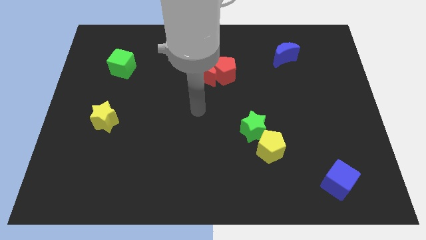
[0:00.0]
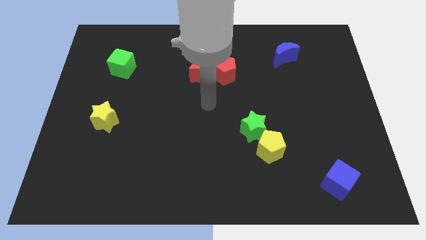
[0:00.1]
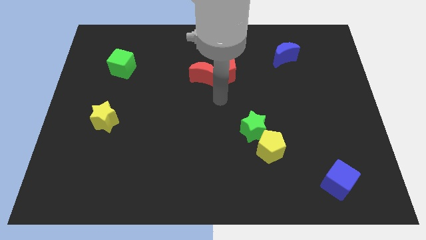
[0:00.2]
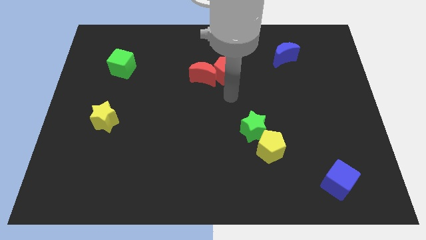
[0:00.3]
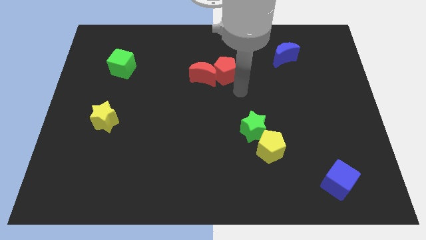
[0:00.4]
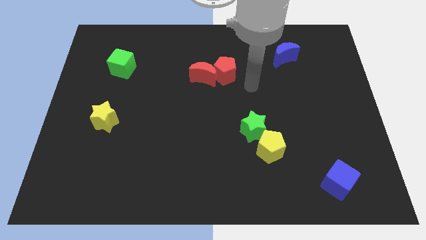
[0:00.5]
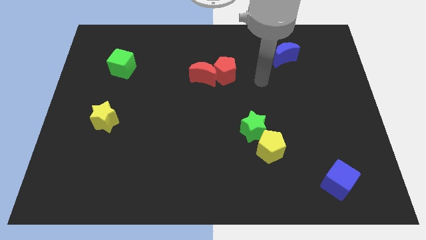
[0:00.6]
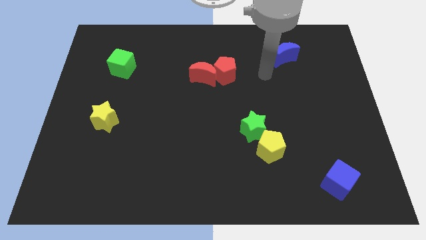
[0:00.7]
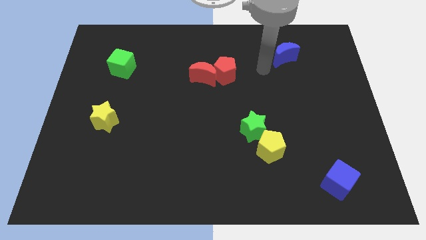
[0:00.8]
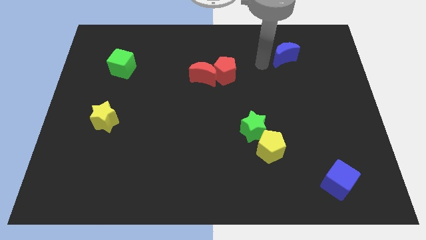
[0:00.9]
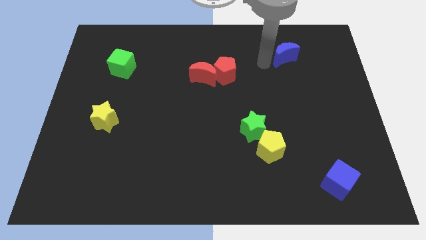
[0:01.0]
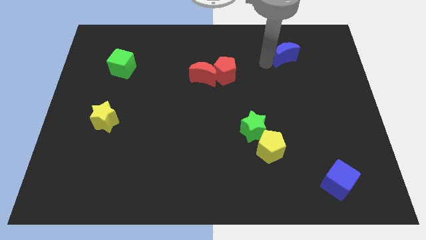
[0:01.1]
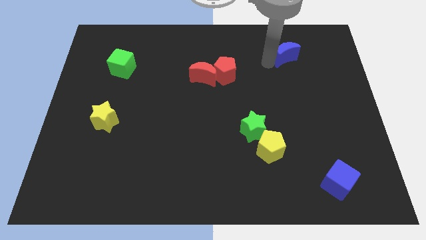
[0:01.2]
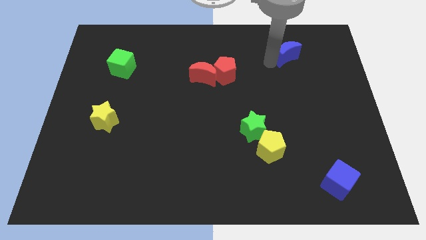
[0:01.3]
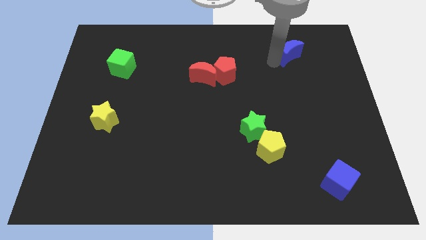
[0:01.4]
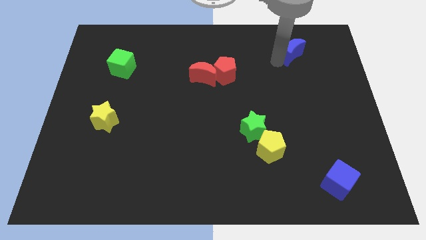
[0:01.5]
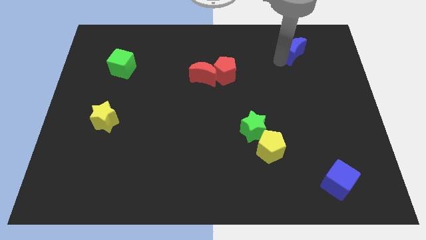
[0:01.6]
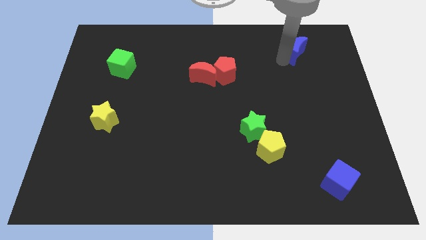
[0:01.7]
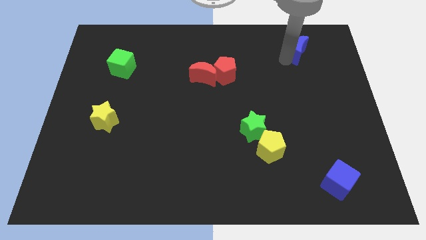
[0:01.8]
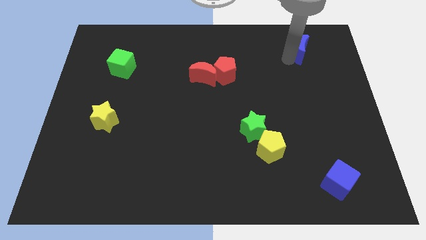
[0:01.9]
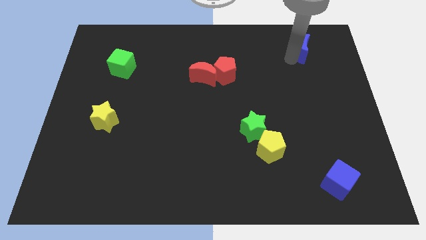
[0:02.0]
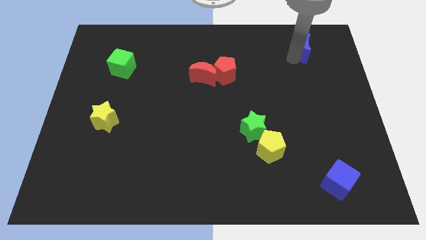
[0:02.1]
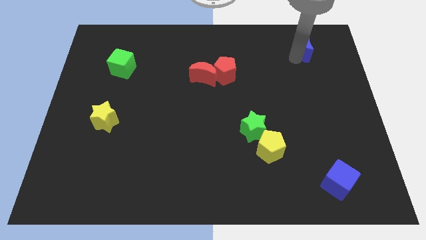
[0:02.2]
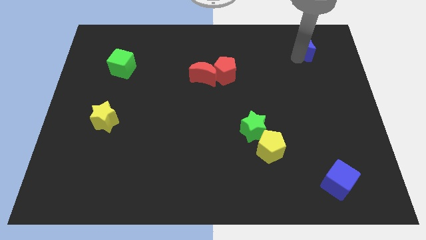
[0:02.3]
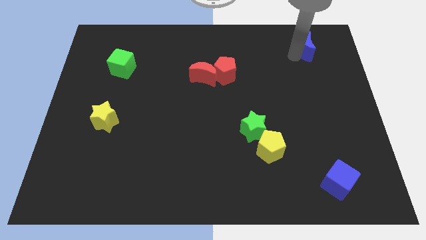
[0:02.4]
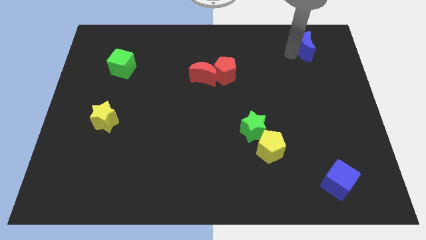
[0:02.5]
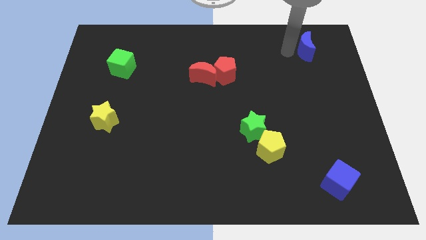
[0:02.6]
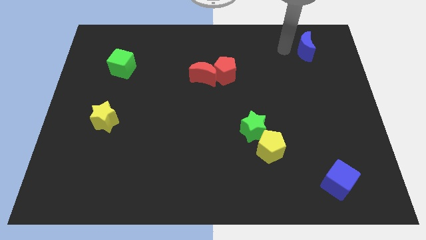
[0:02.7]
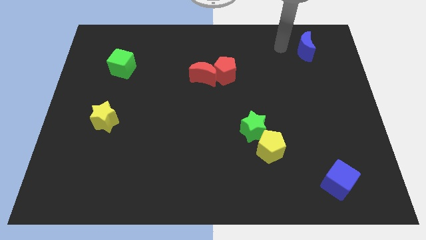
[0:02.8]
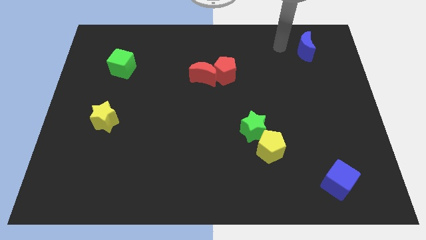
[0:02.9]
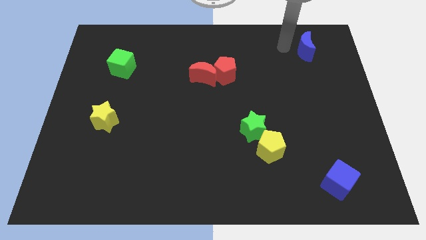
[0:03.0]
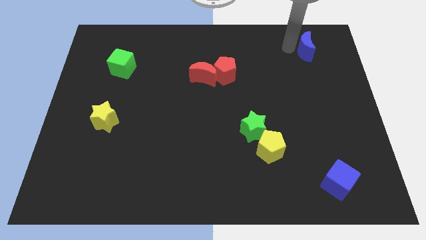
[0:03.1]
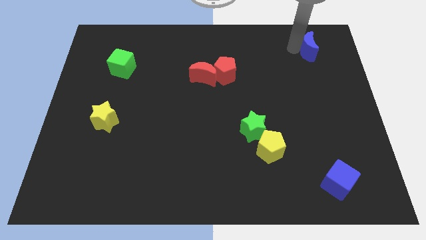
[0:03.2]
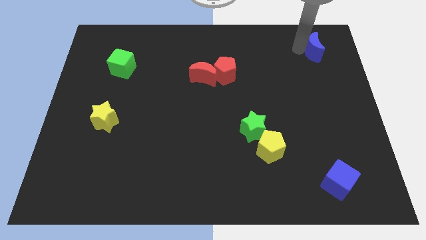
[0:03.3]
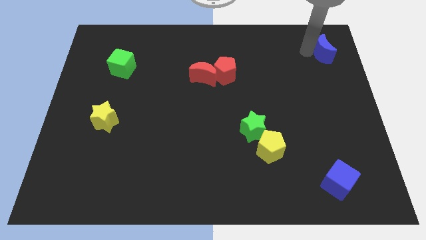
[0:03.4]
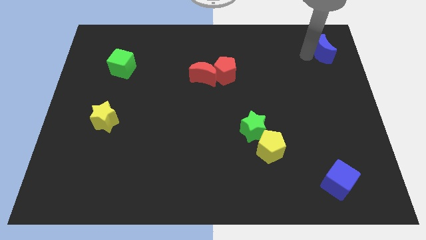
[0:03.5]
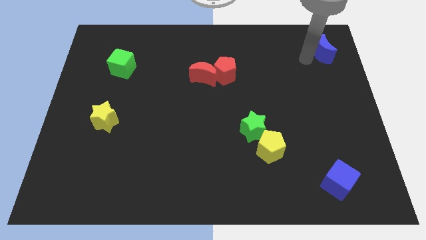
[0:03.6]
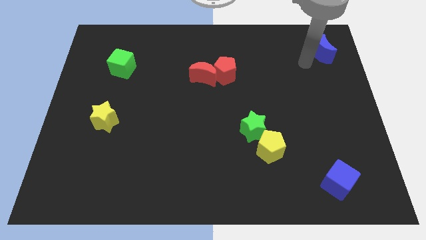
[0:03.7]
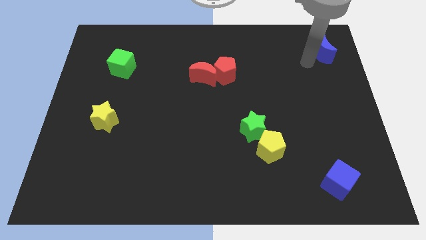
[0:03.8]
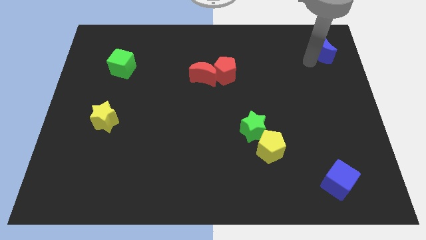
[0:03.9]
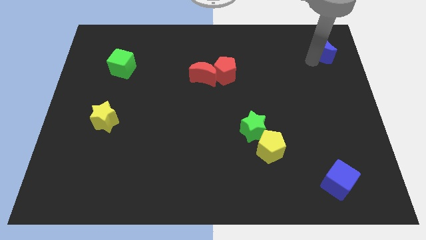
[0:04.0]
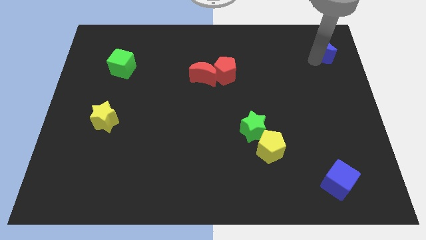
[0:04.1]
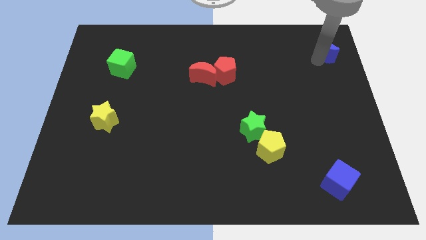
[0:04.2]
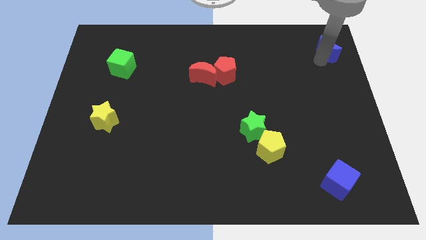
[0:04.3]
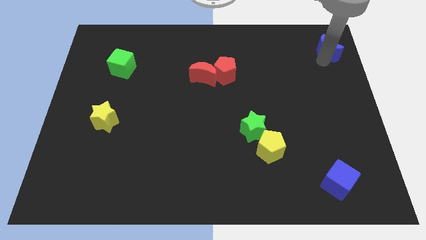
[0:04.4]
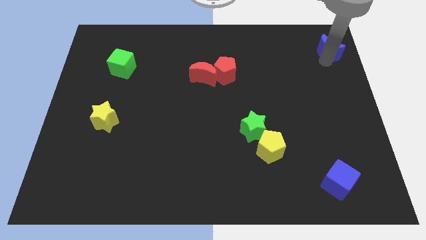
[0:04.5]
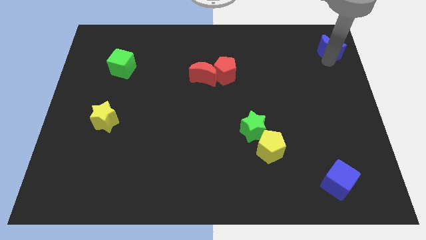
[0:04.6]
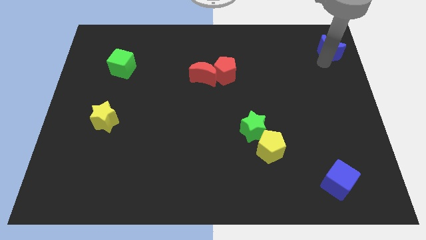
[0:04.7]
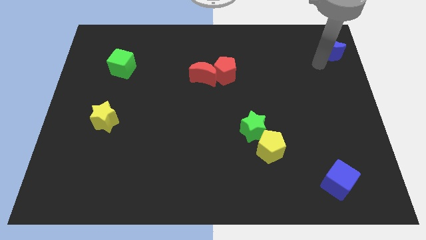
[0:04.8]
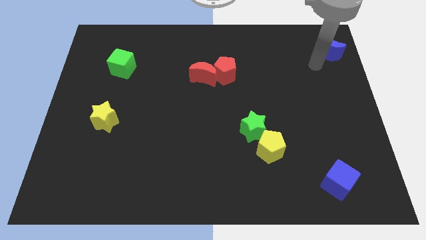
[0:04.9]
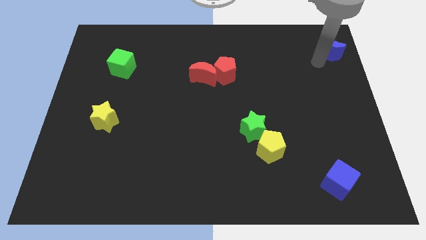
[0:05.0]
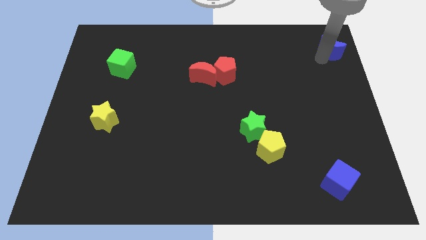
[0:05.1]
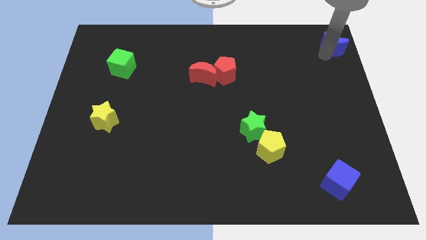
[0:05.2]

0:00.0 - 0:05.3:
move the blue moon to the top right corner
